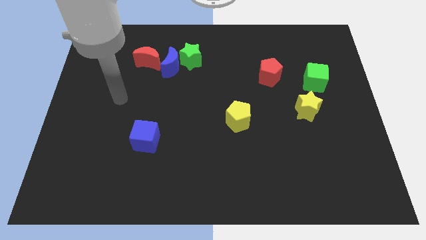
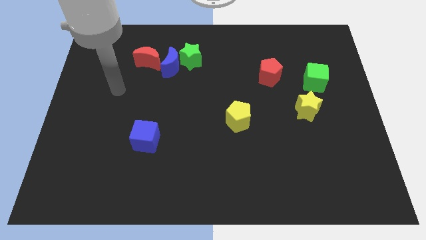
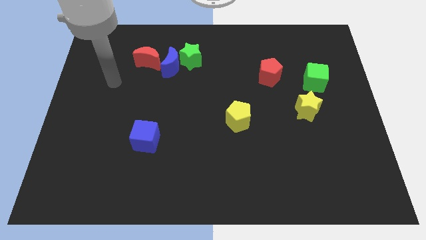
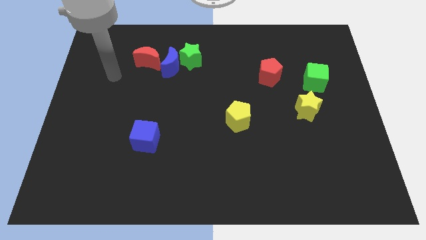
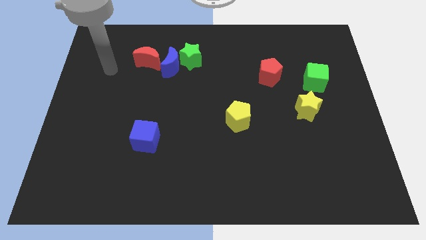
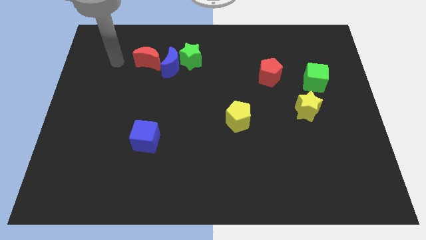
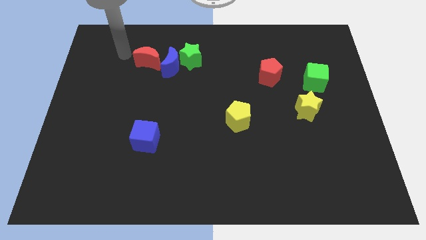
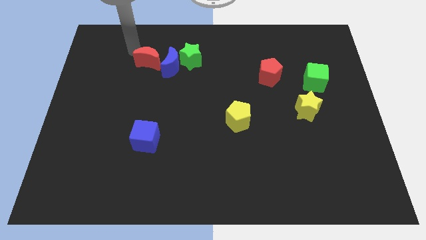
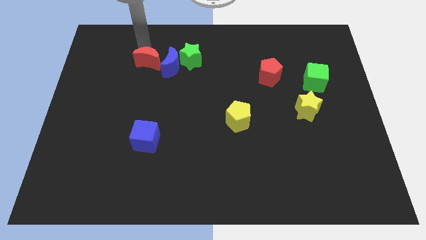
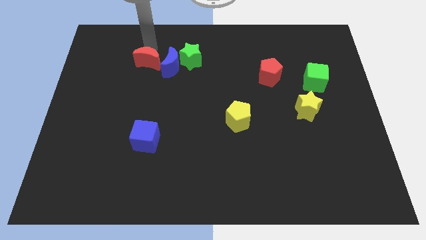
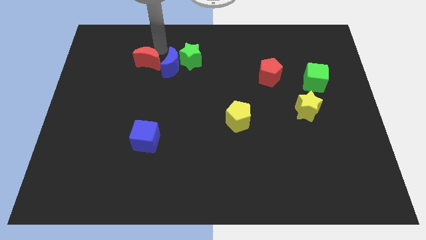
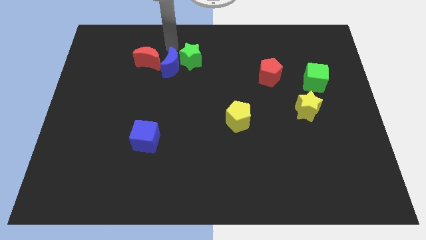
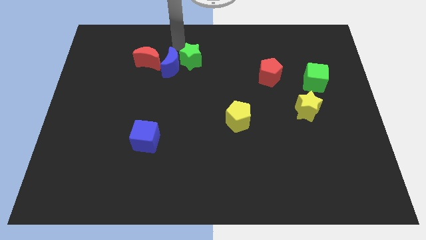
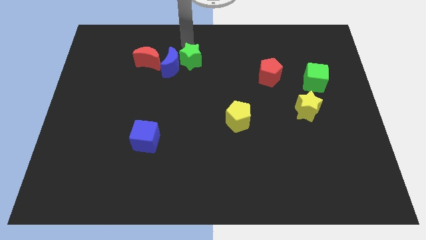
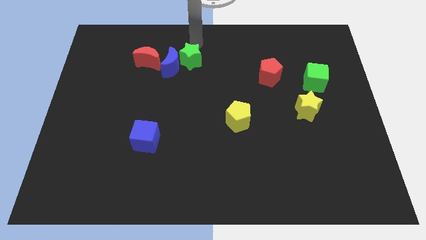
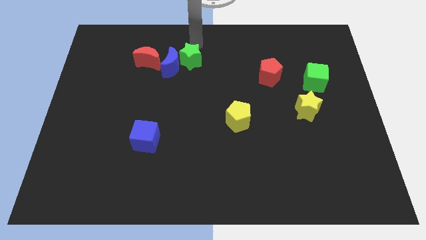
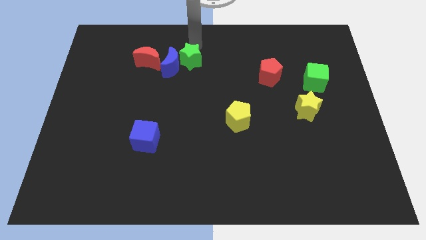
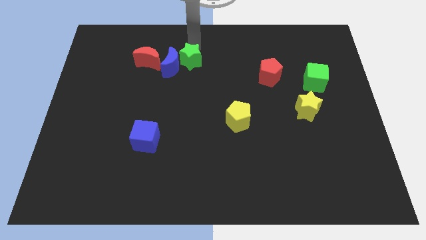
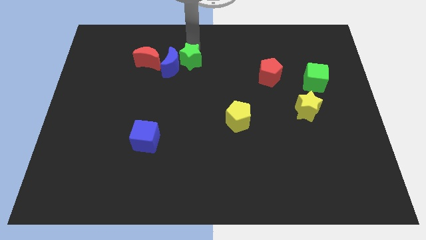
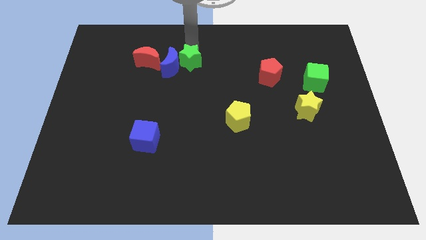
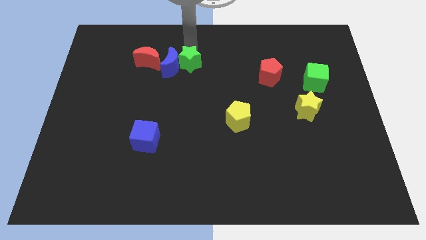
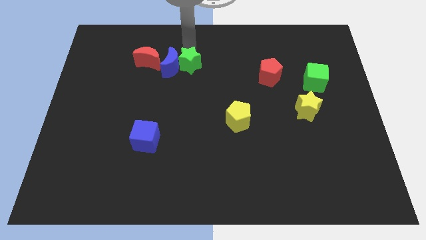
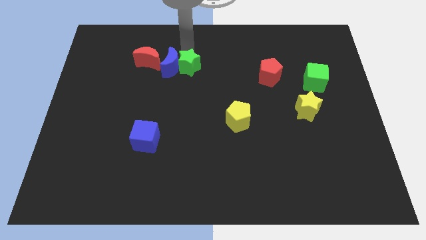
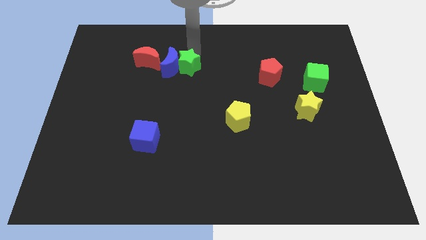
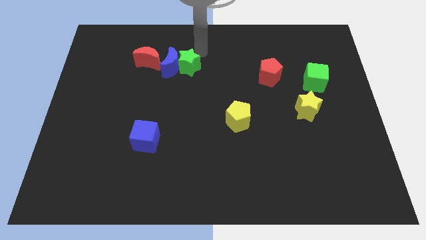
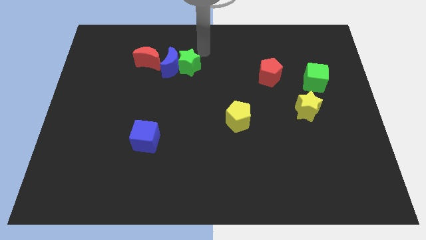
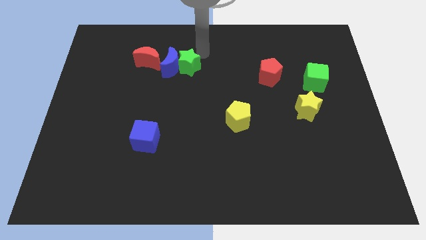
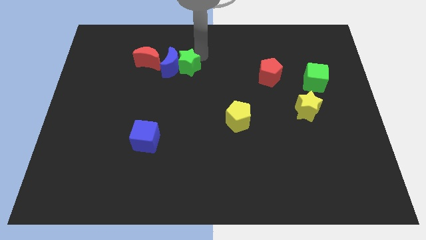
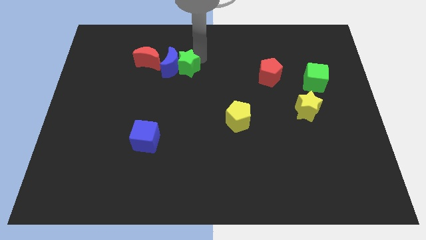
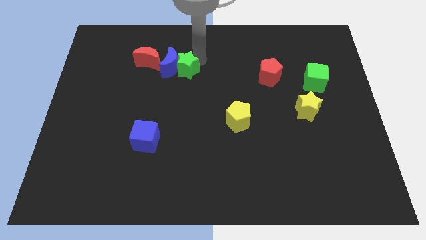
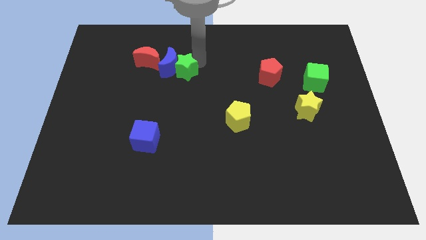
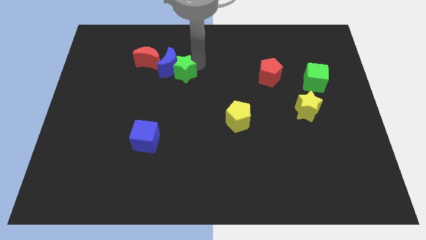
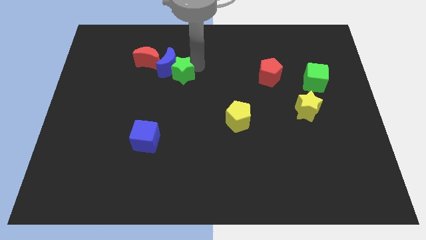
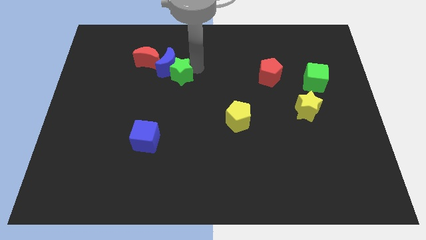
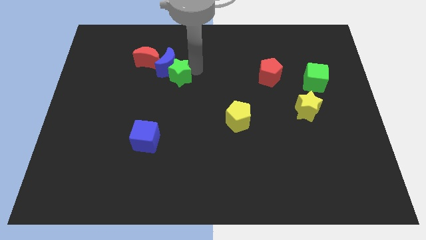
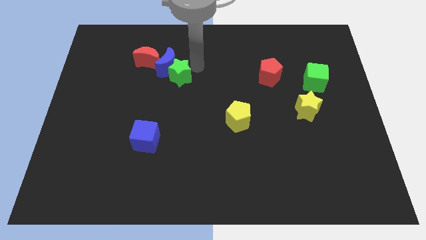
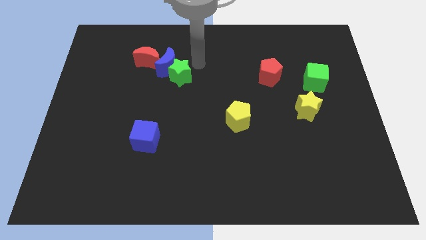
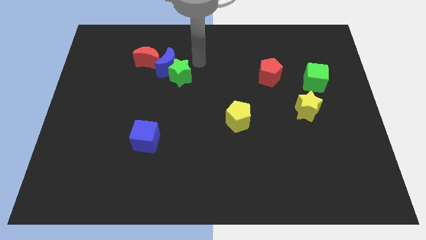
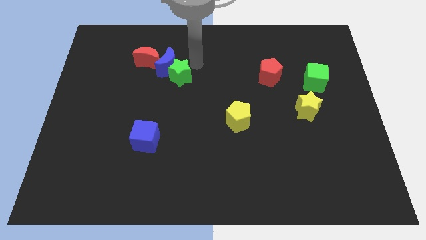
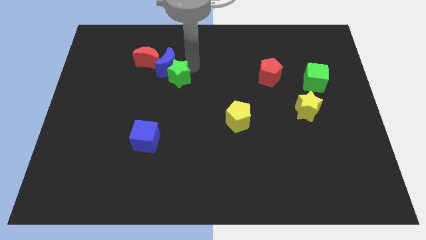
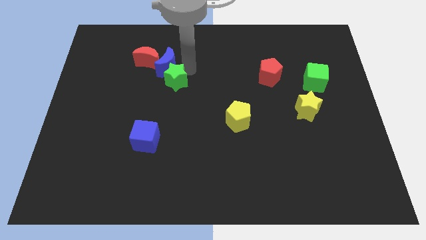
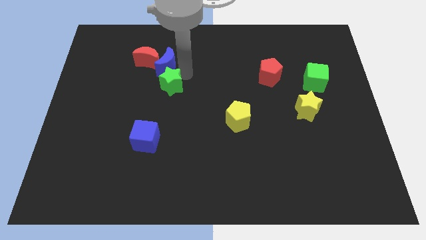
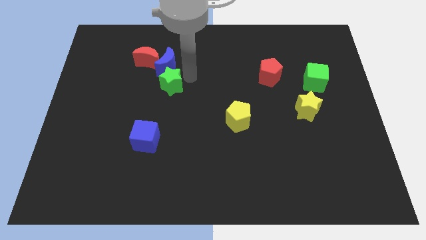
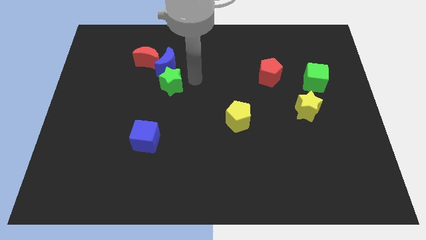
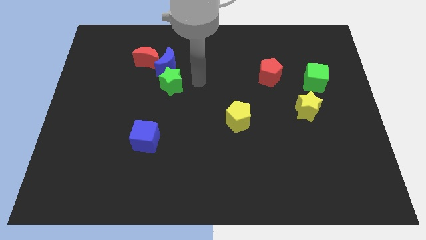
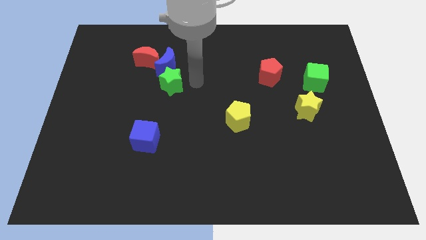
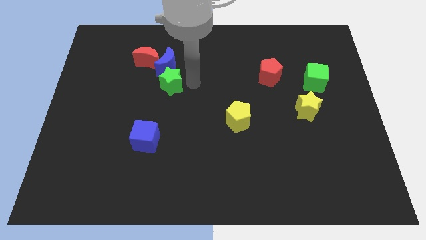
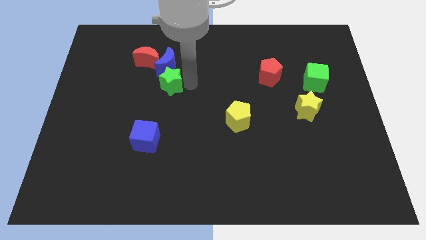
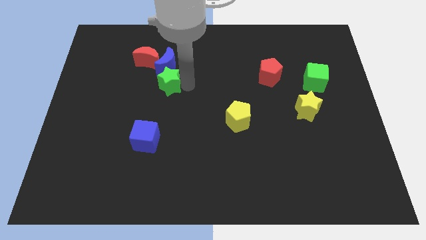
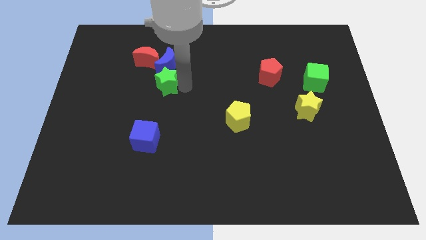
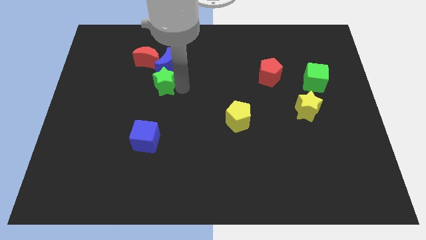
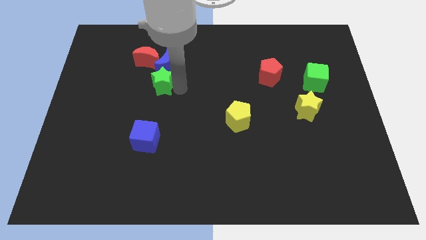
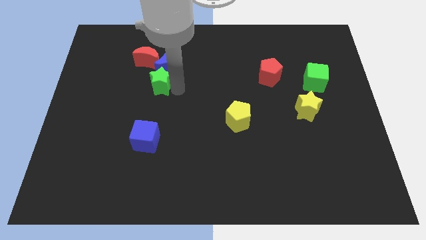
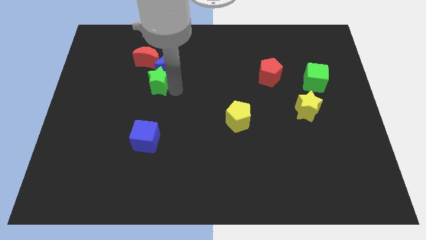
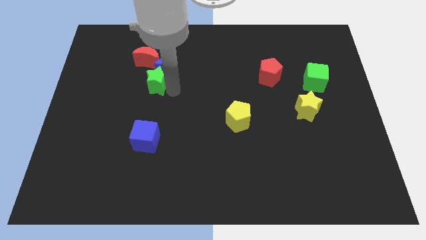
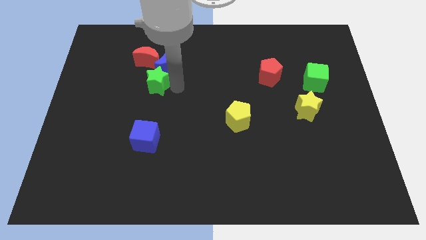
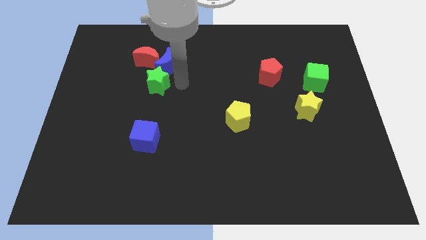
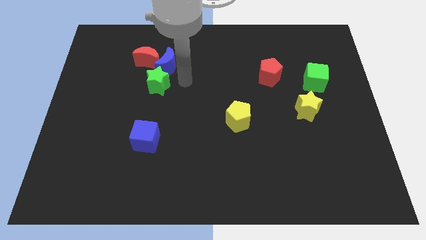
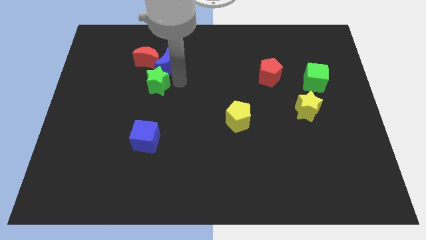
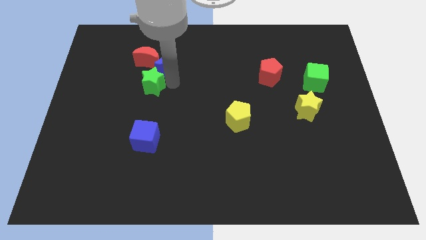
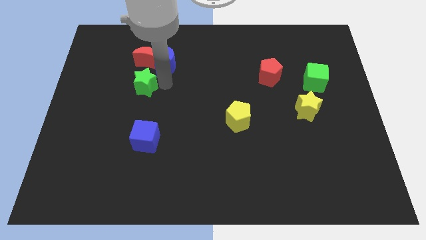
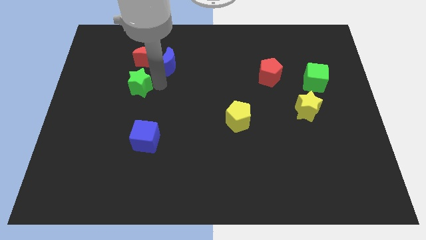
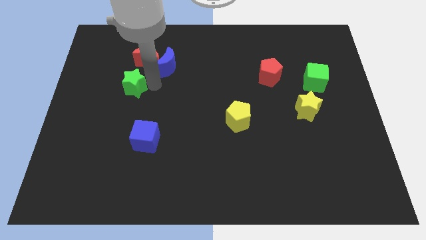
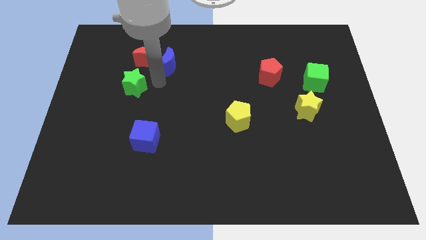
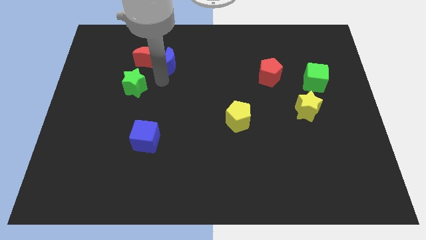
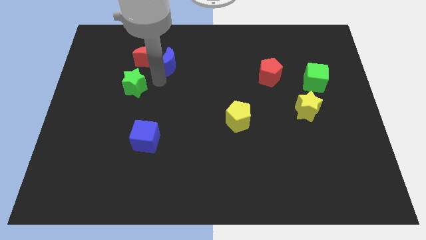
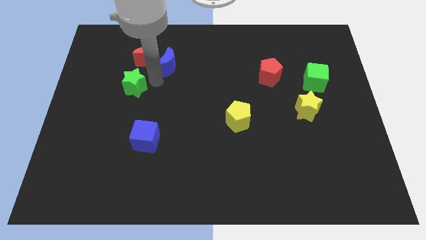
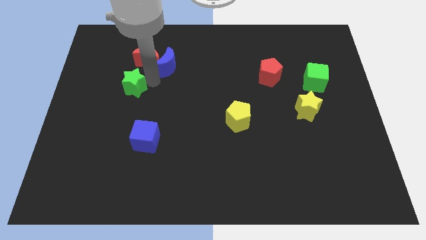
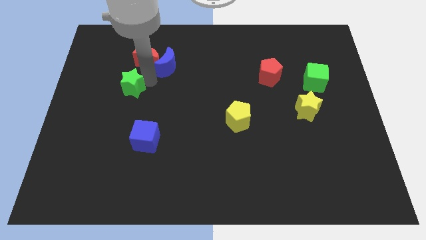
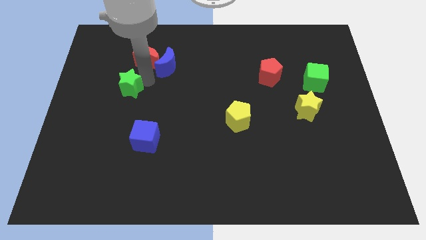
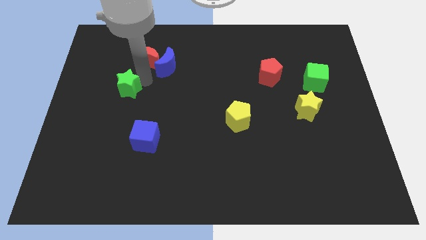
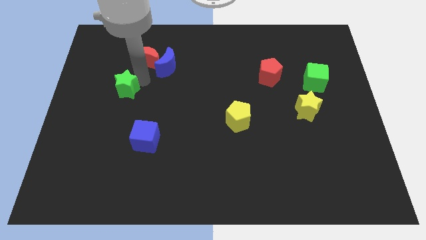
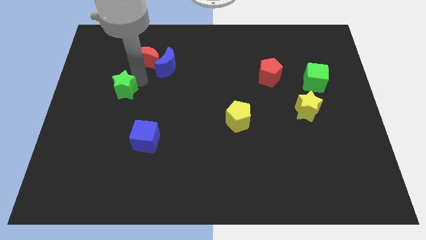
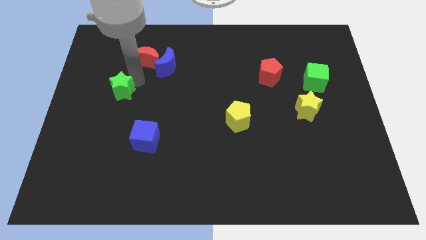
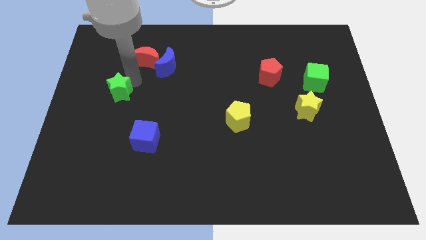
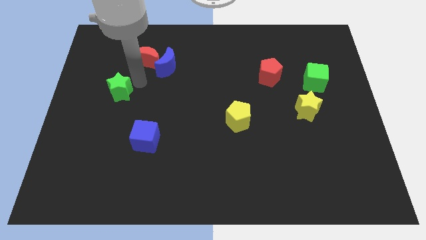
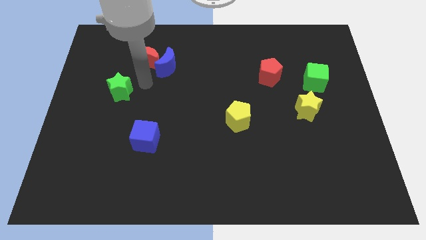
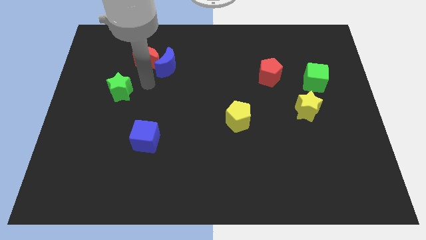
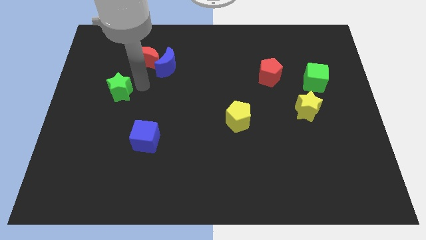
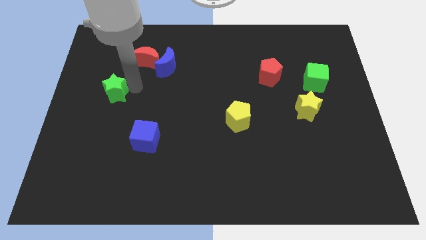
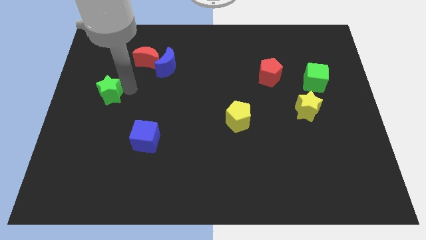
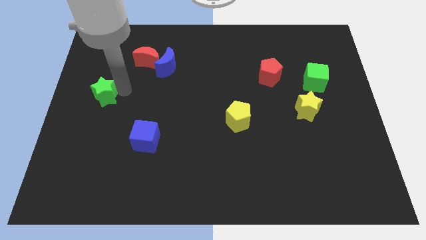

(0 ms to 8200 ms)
push the green star to the left side of the board
